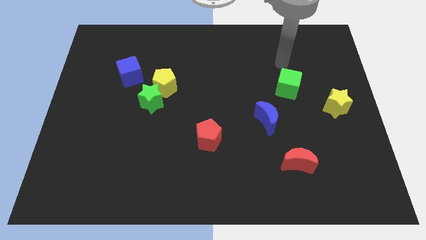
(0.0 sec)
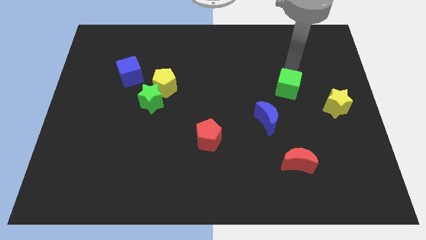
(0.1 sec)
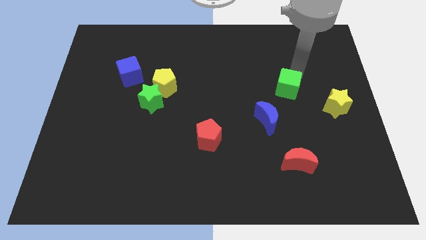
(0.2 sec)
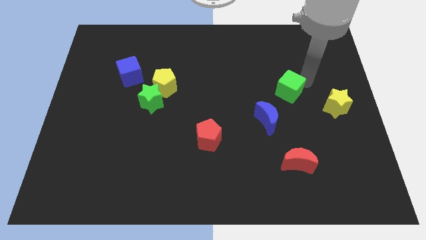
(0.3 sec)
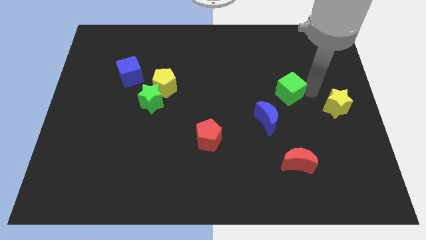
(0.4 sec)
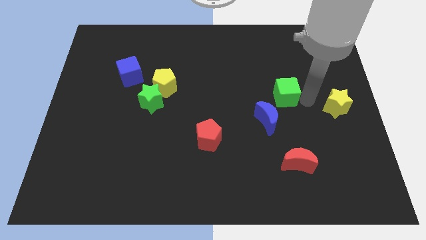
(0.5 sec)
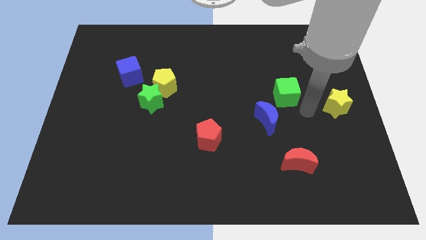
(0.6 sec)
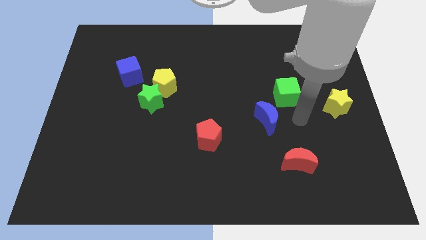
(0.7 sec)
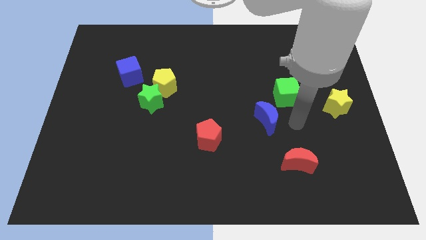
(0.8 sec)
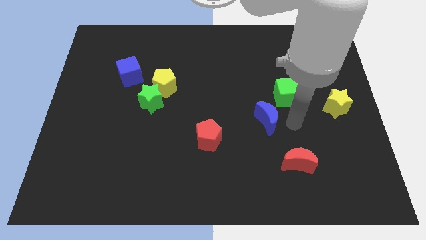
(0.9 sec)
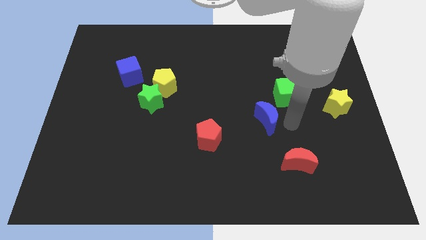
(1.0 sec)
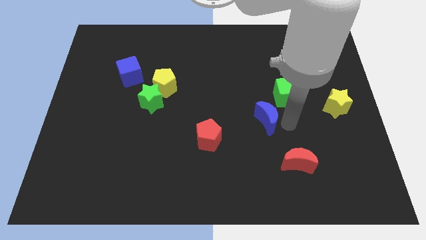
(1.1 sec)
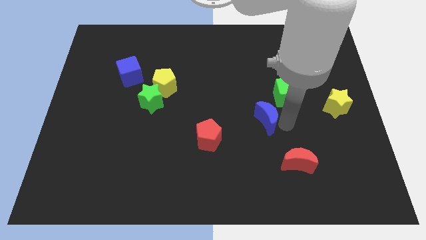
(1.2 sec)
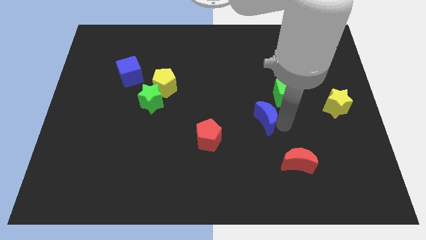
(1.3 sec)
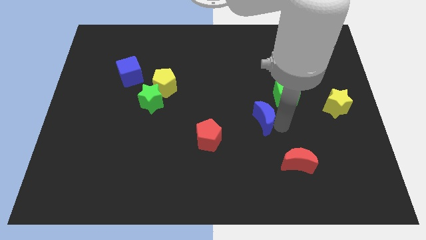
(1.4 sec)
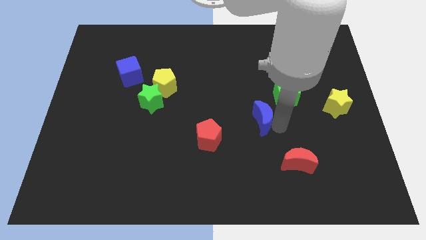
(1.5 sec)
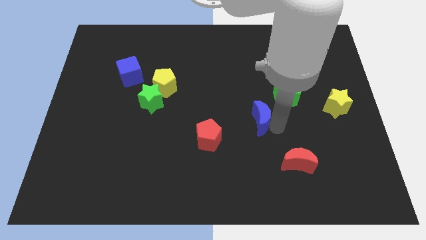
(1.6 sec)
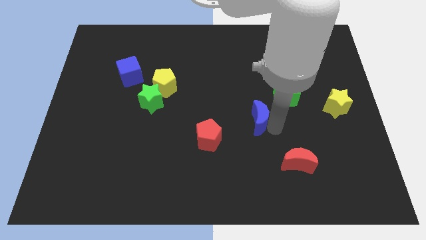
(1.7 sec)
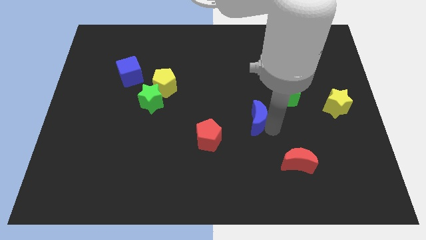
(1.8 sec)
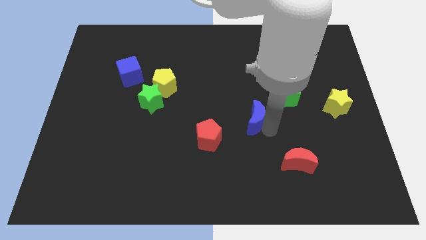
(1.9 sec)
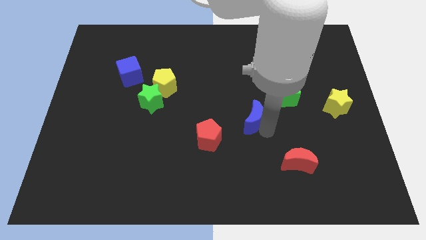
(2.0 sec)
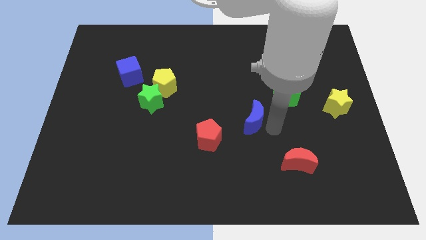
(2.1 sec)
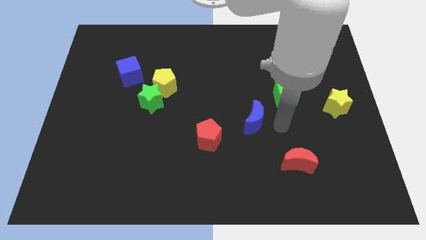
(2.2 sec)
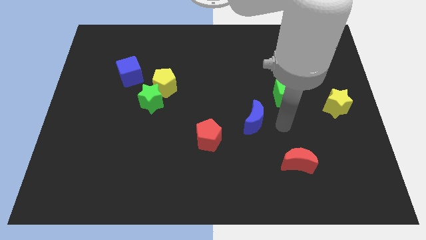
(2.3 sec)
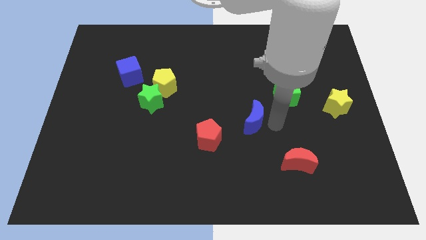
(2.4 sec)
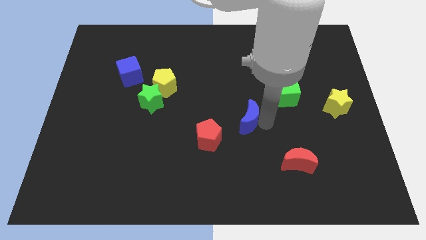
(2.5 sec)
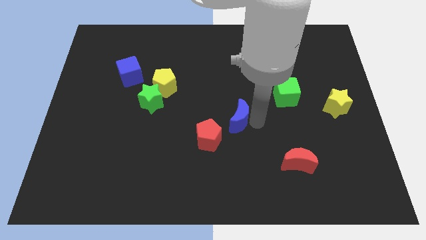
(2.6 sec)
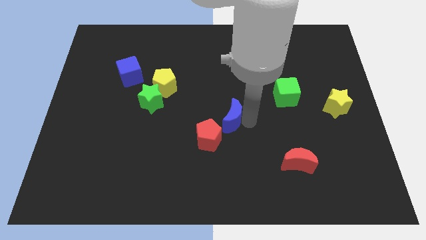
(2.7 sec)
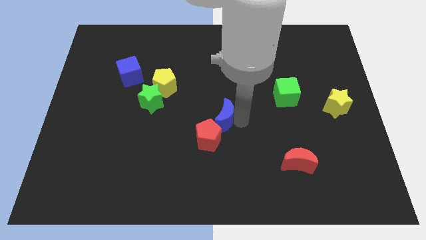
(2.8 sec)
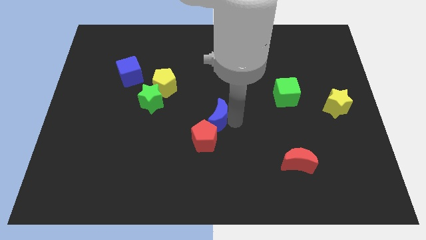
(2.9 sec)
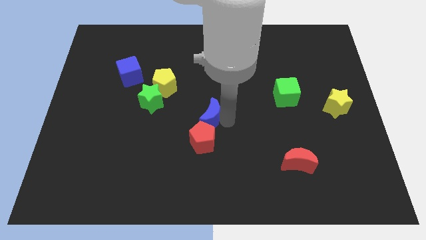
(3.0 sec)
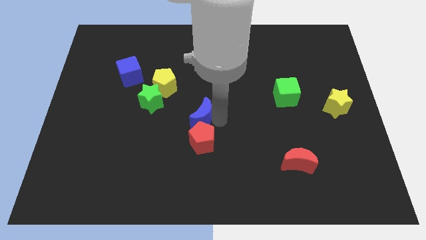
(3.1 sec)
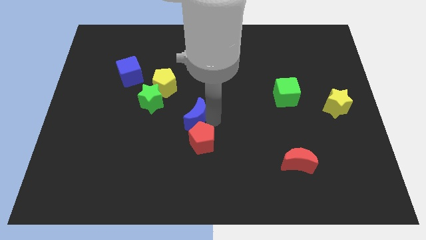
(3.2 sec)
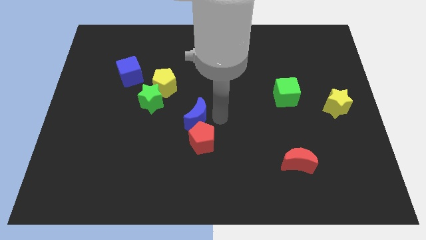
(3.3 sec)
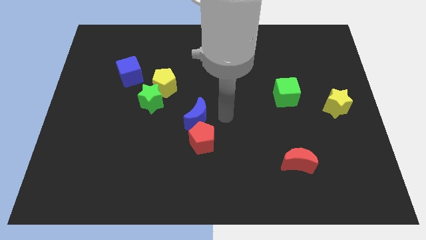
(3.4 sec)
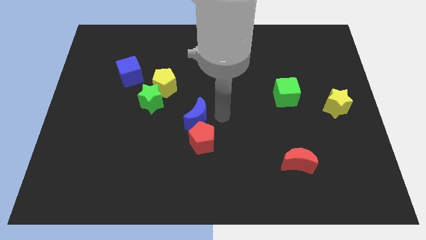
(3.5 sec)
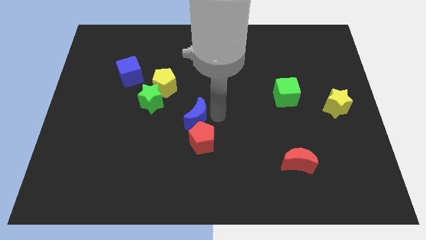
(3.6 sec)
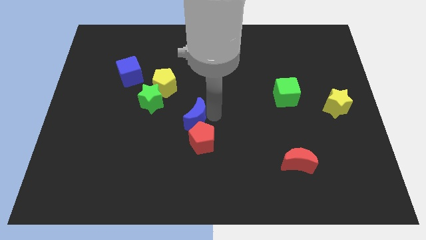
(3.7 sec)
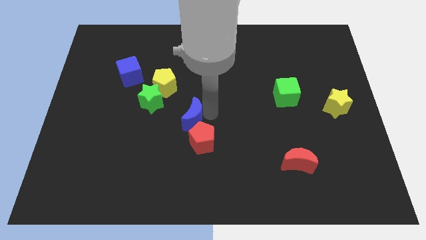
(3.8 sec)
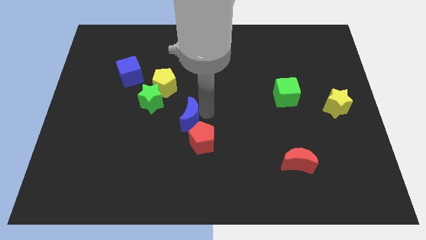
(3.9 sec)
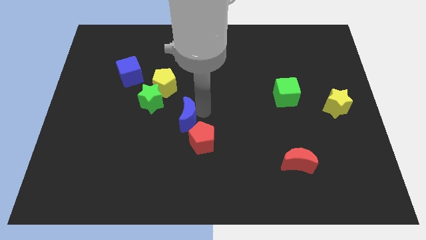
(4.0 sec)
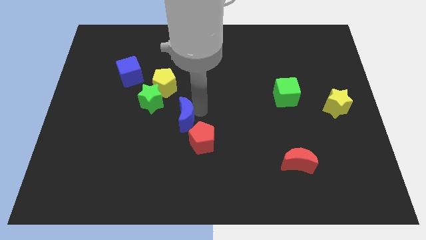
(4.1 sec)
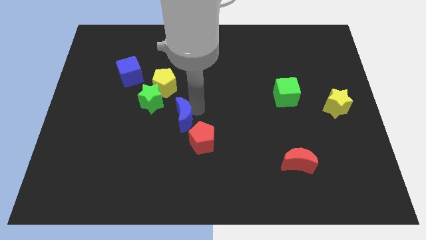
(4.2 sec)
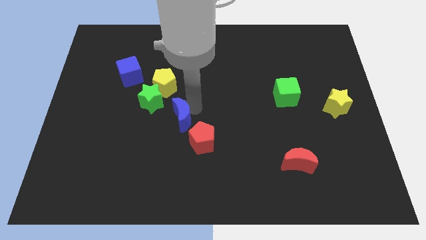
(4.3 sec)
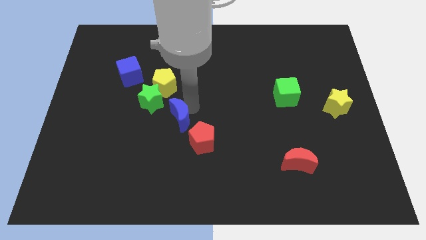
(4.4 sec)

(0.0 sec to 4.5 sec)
push the blue moon to the left

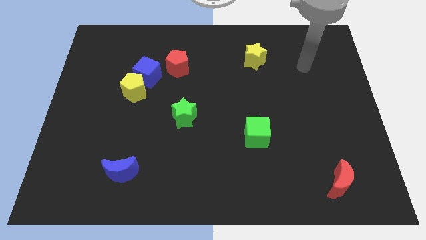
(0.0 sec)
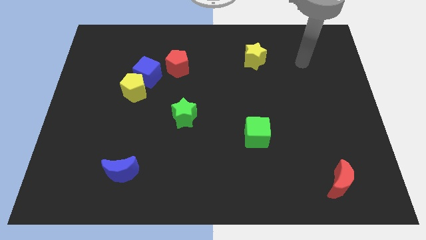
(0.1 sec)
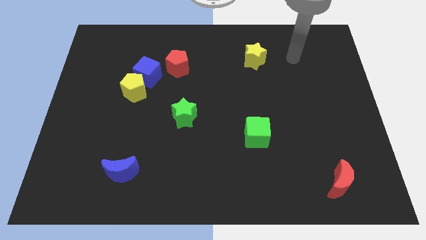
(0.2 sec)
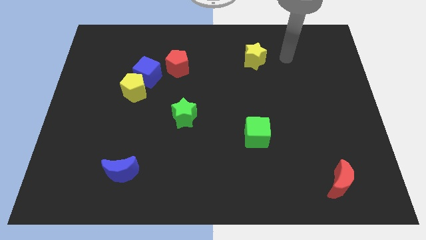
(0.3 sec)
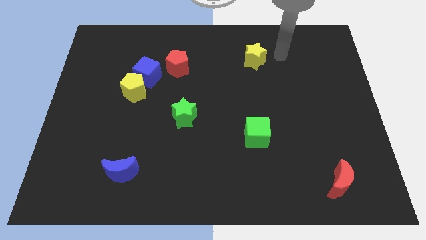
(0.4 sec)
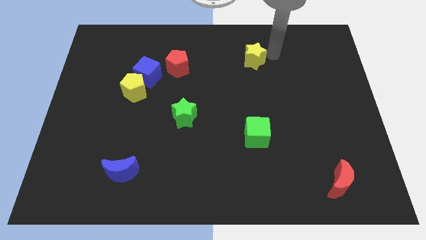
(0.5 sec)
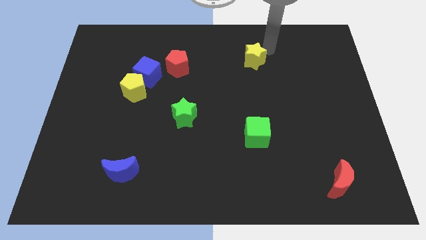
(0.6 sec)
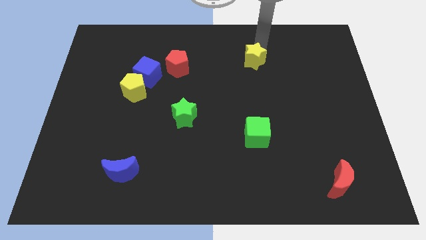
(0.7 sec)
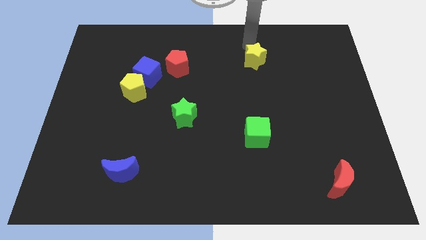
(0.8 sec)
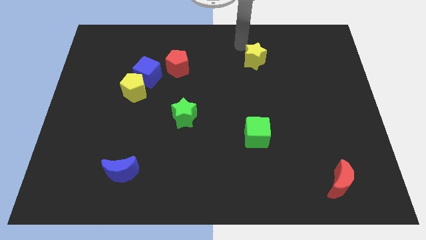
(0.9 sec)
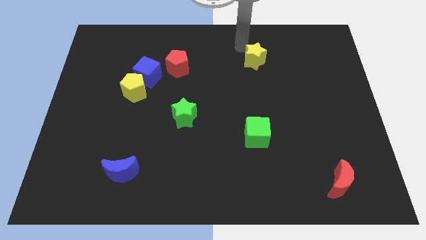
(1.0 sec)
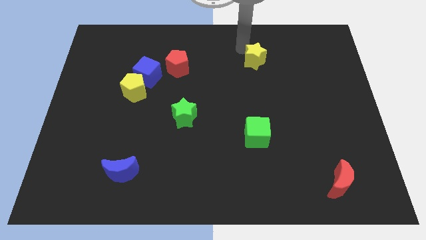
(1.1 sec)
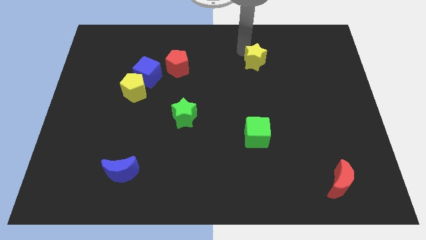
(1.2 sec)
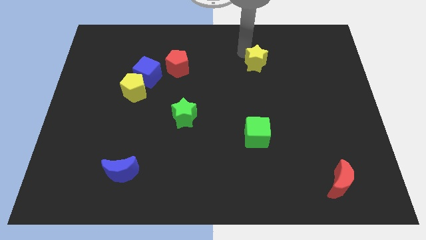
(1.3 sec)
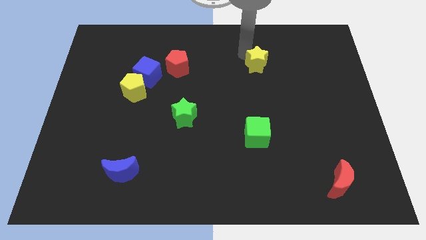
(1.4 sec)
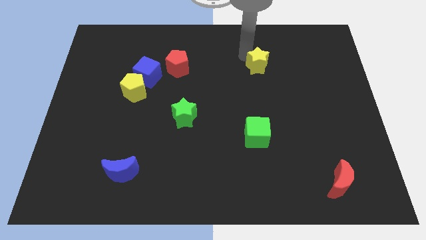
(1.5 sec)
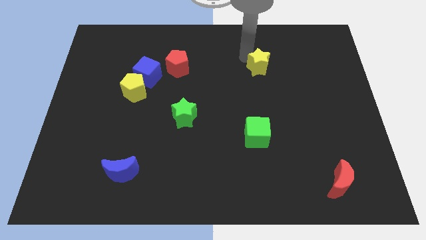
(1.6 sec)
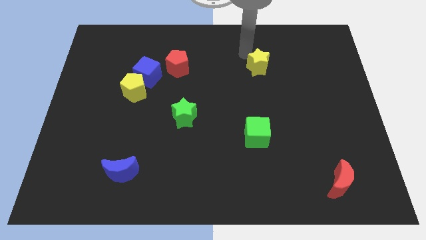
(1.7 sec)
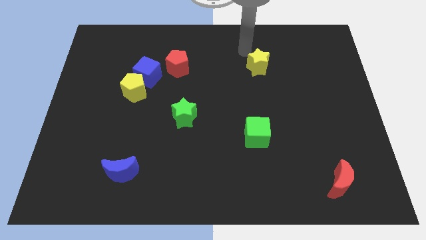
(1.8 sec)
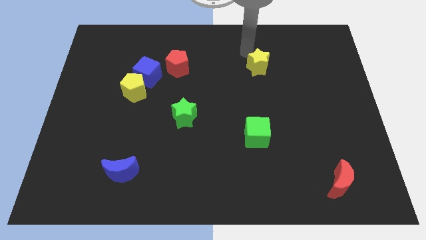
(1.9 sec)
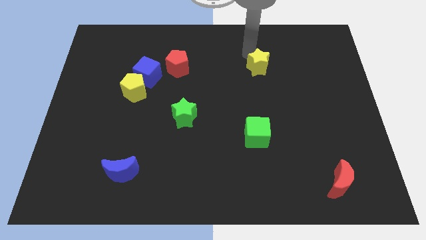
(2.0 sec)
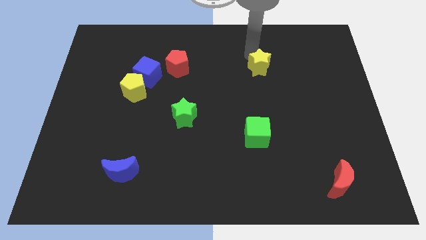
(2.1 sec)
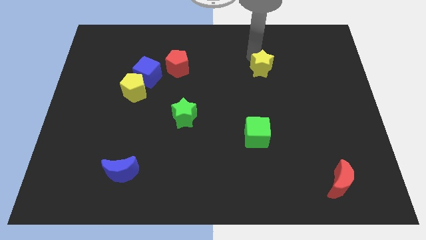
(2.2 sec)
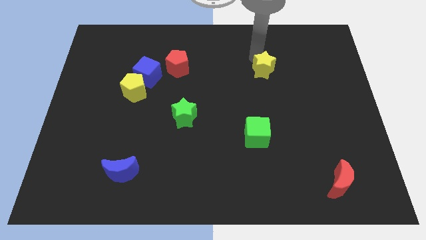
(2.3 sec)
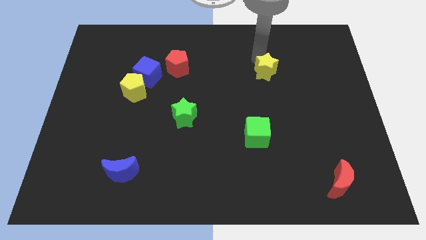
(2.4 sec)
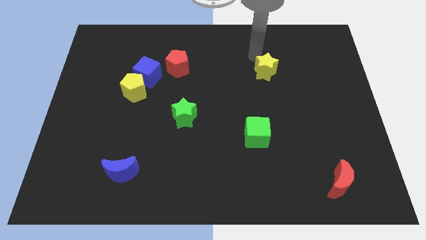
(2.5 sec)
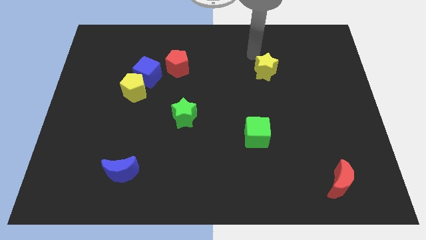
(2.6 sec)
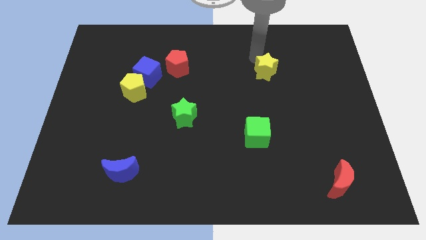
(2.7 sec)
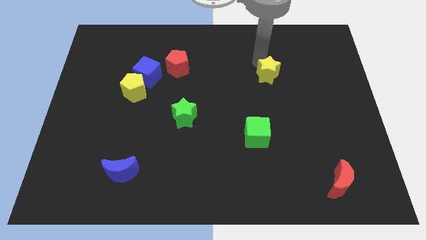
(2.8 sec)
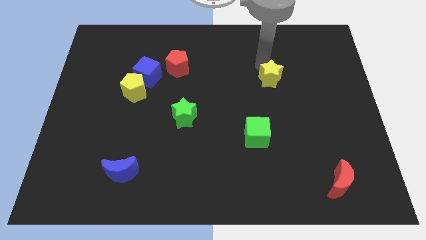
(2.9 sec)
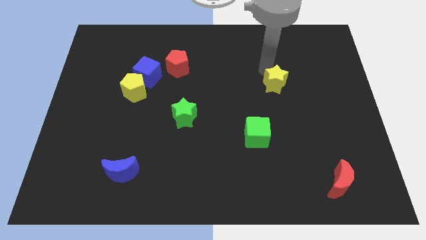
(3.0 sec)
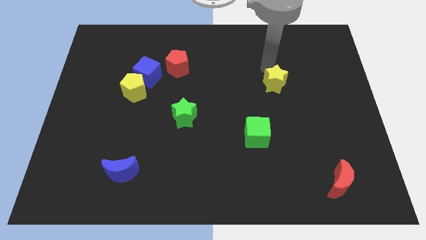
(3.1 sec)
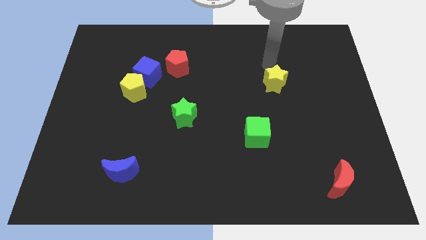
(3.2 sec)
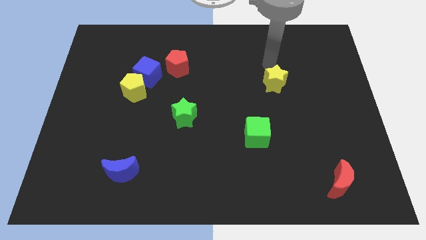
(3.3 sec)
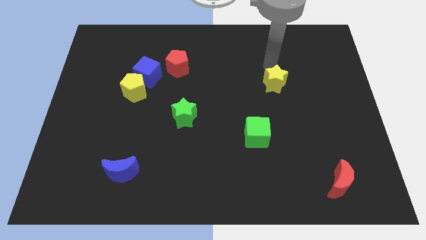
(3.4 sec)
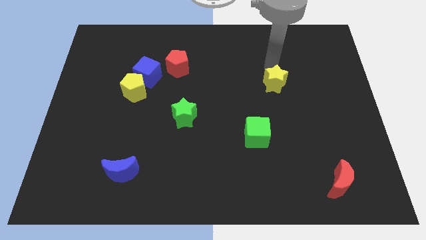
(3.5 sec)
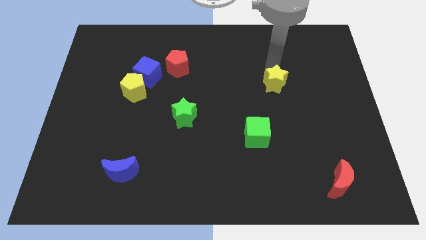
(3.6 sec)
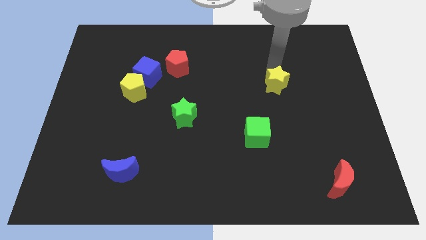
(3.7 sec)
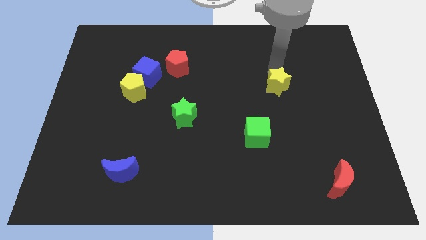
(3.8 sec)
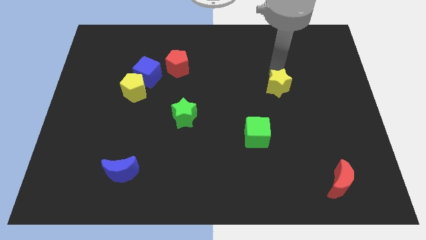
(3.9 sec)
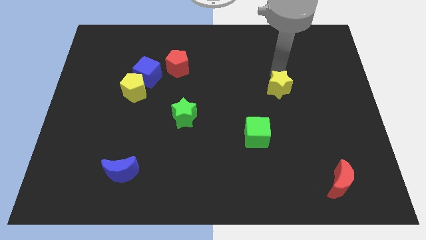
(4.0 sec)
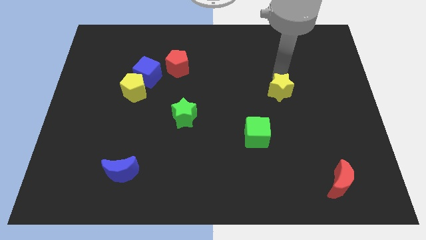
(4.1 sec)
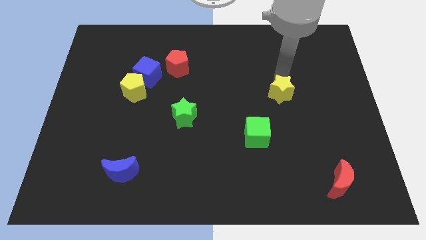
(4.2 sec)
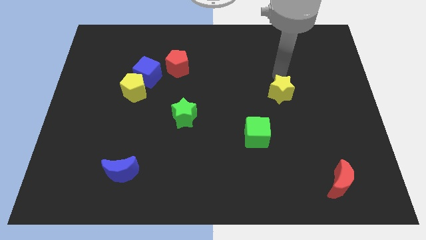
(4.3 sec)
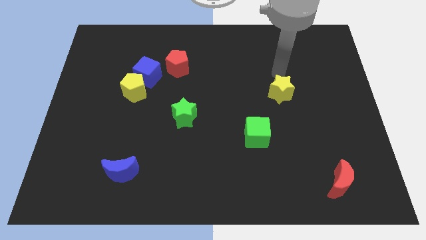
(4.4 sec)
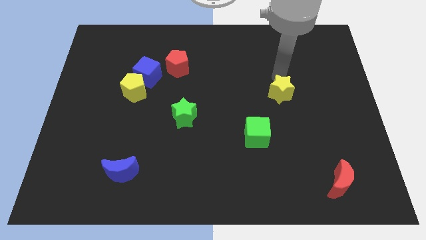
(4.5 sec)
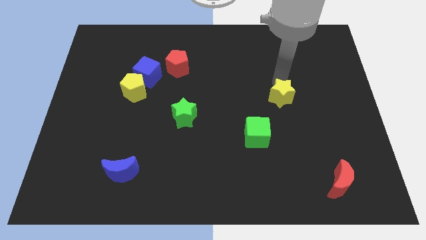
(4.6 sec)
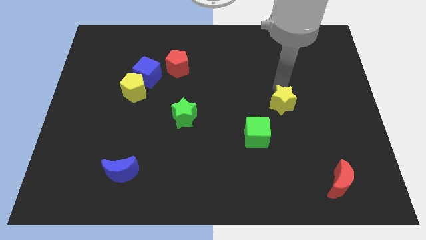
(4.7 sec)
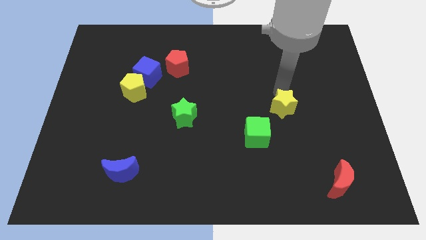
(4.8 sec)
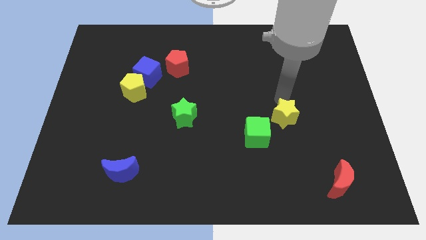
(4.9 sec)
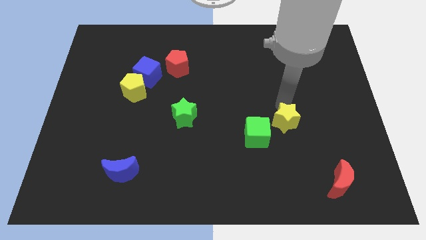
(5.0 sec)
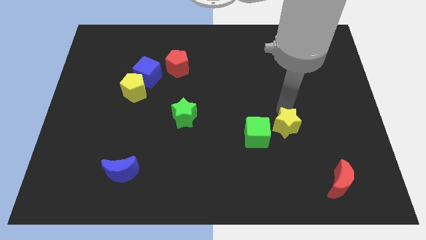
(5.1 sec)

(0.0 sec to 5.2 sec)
push the yellow star downwards
